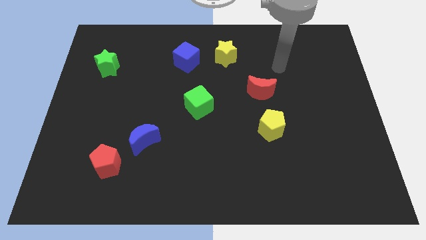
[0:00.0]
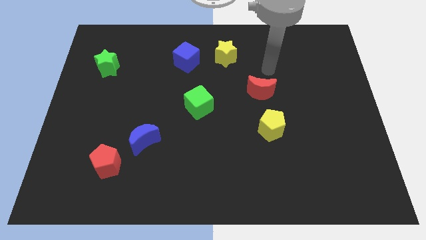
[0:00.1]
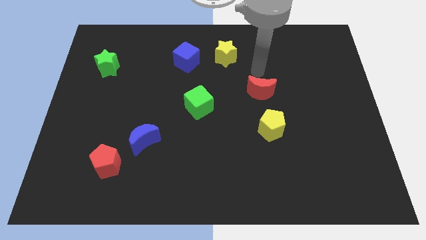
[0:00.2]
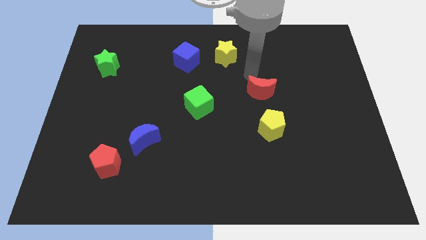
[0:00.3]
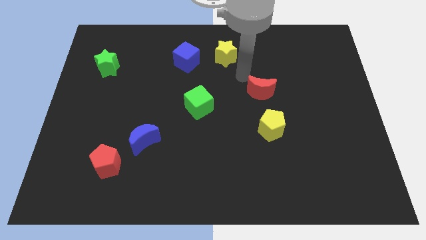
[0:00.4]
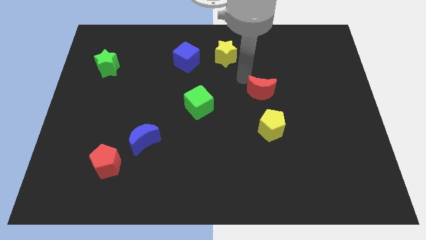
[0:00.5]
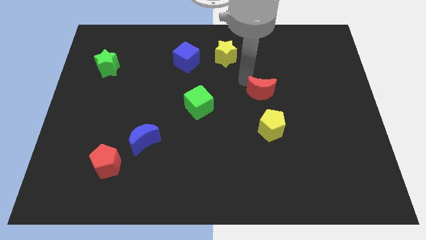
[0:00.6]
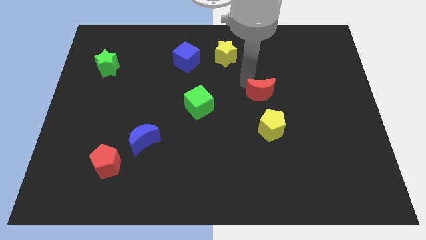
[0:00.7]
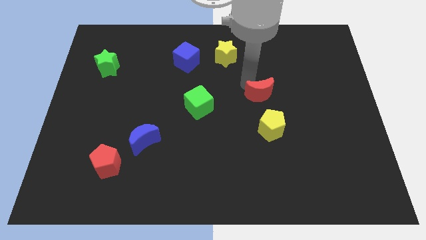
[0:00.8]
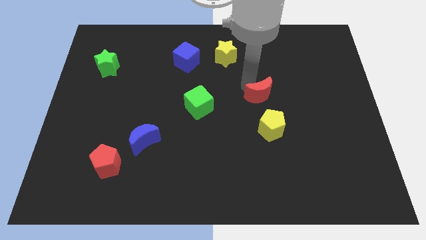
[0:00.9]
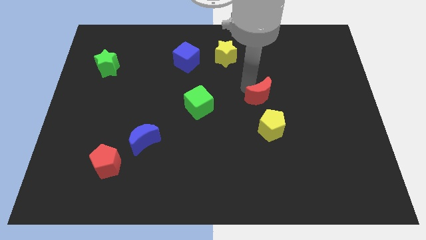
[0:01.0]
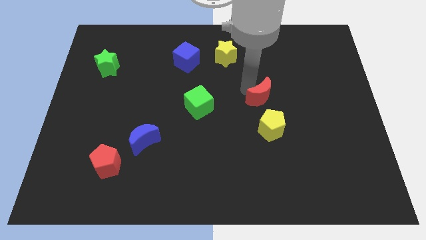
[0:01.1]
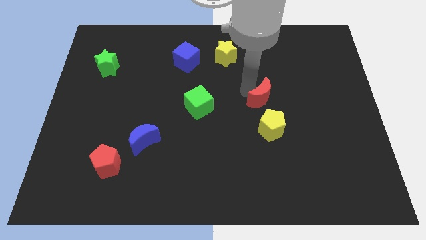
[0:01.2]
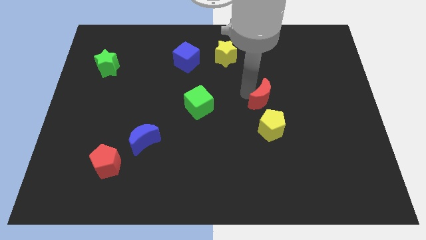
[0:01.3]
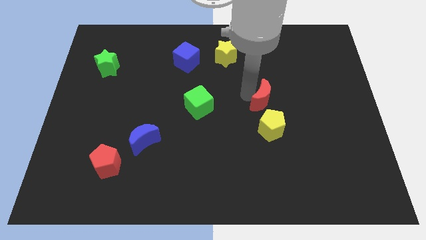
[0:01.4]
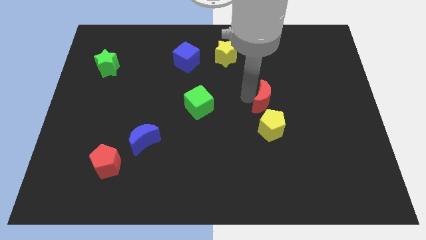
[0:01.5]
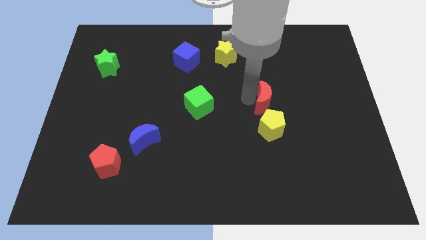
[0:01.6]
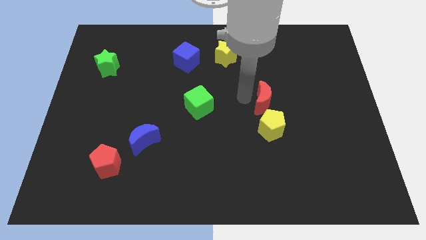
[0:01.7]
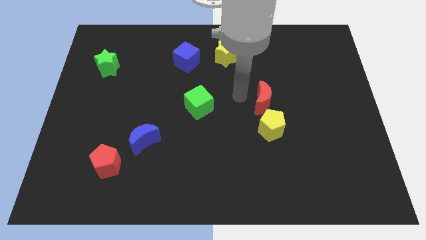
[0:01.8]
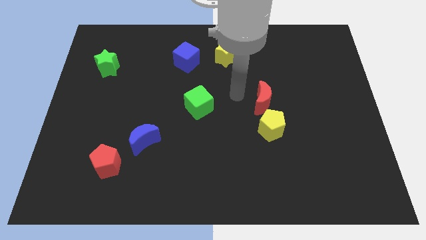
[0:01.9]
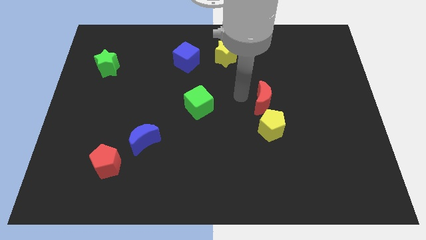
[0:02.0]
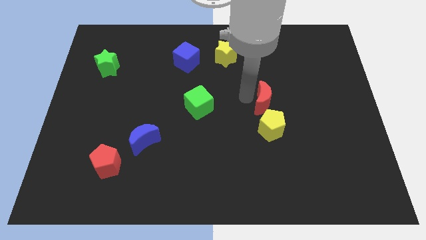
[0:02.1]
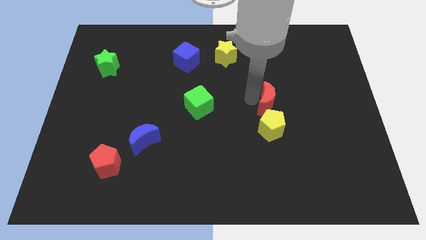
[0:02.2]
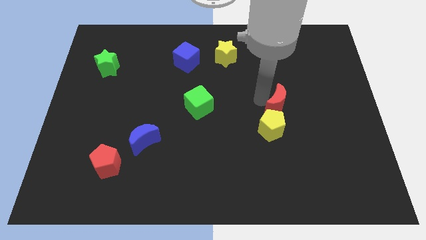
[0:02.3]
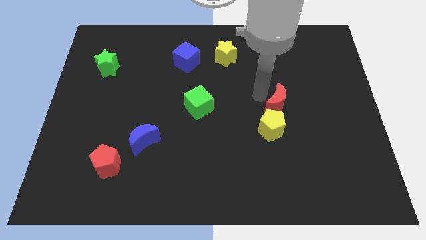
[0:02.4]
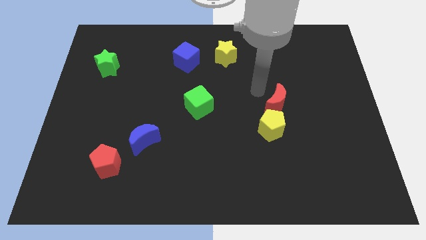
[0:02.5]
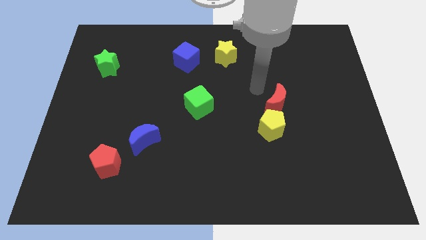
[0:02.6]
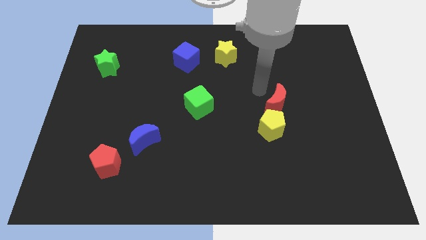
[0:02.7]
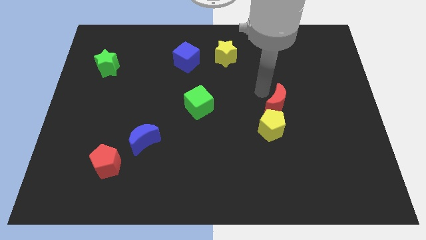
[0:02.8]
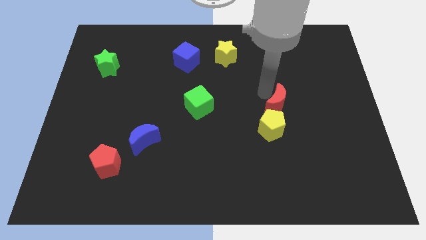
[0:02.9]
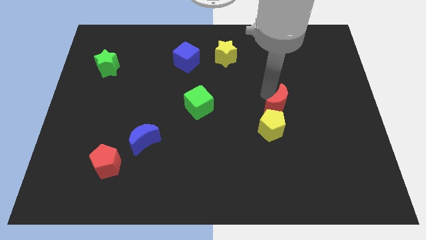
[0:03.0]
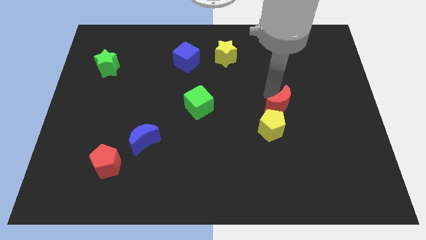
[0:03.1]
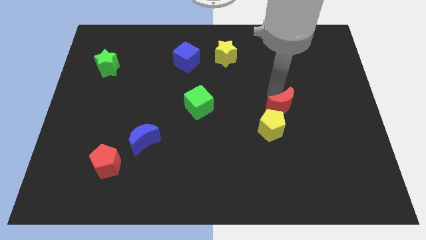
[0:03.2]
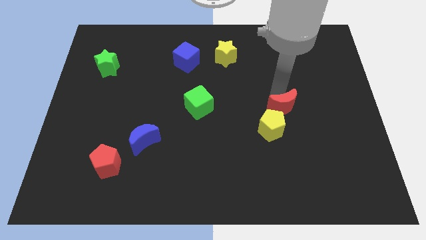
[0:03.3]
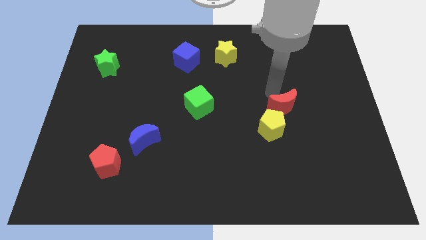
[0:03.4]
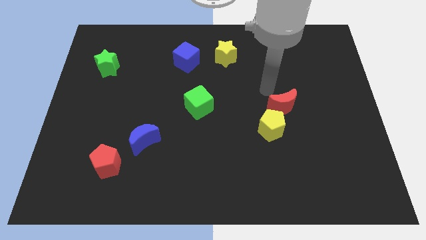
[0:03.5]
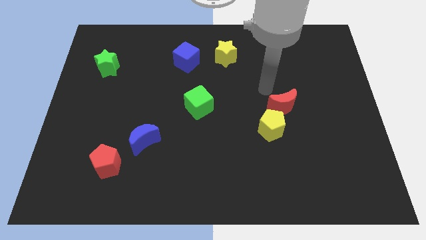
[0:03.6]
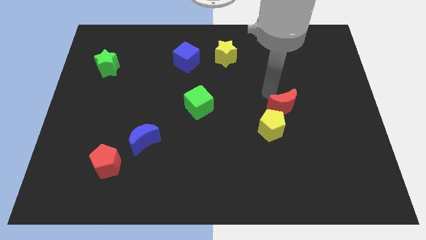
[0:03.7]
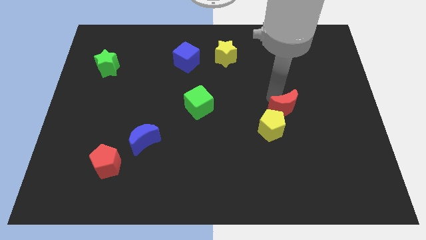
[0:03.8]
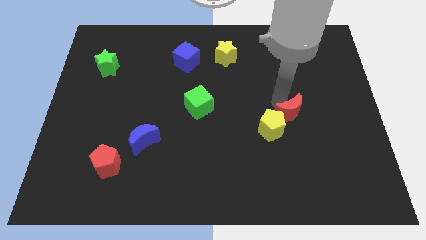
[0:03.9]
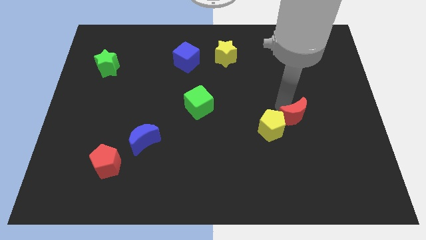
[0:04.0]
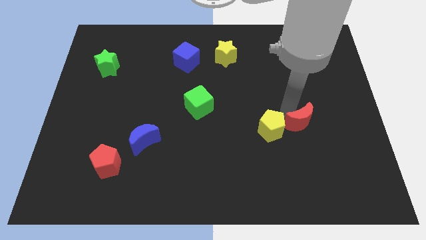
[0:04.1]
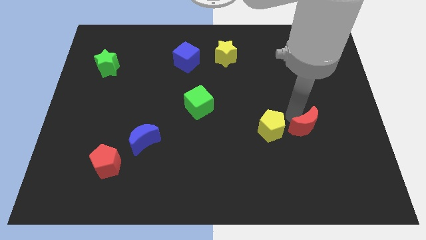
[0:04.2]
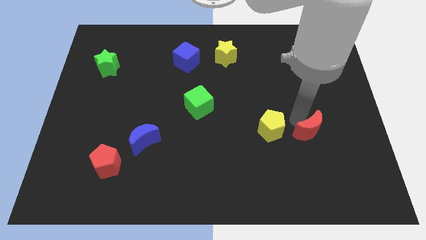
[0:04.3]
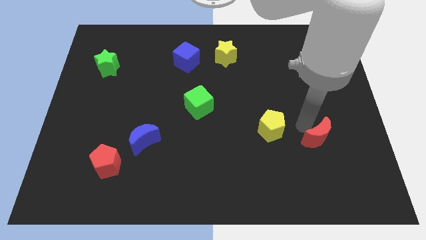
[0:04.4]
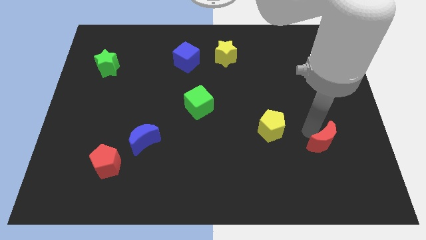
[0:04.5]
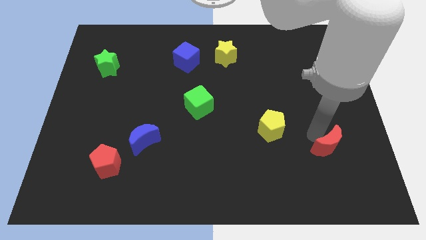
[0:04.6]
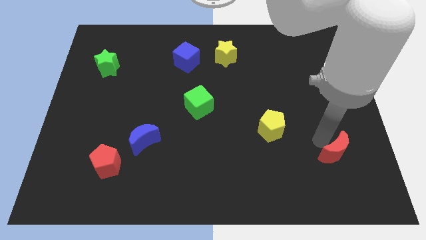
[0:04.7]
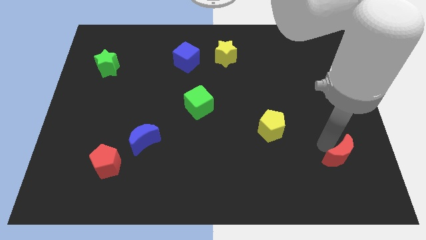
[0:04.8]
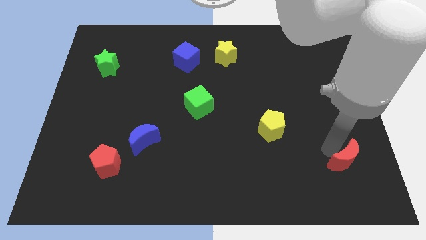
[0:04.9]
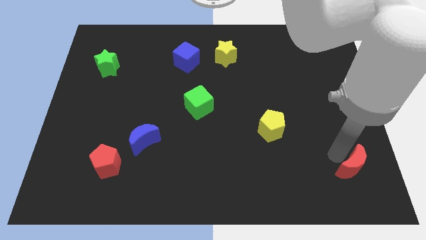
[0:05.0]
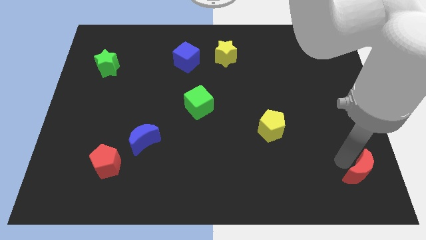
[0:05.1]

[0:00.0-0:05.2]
move the red moon to the lower right corner

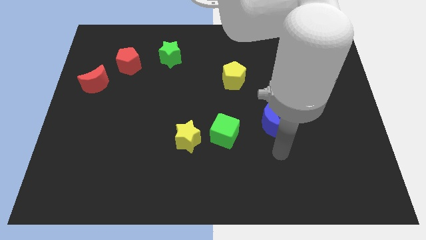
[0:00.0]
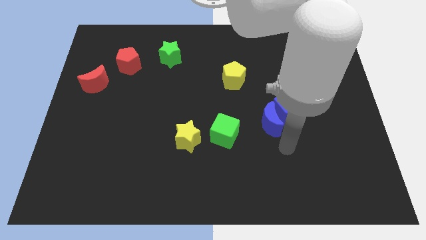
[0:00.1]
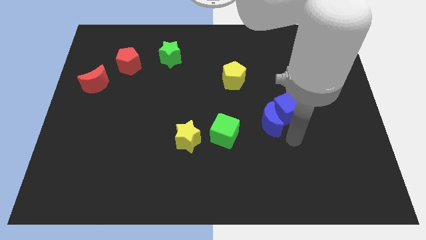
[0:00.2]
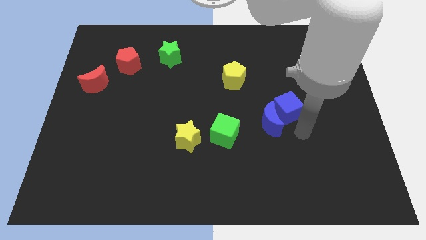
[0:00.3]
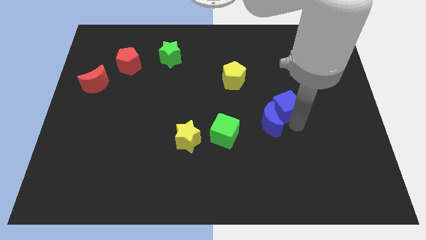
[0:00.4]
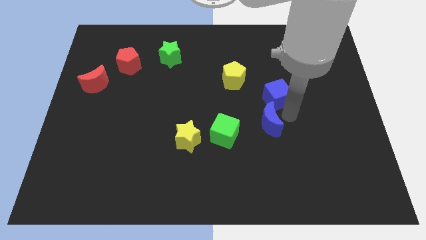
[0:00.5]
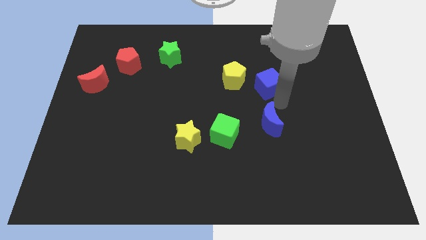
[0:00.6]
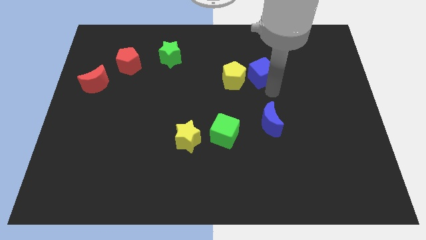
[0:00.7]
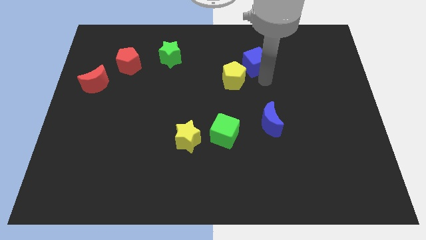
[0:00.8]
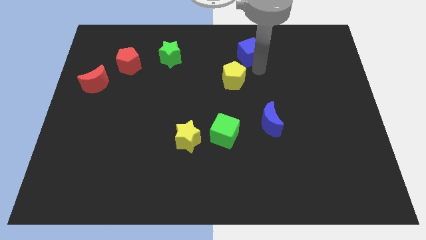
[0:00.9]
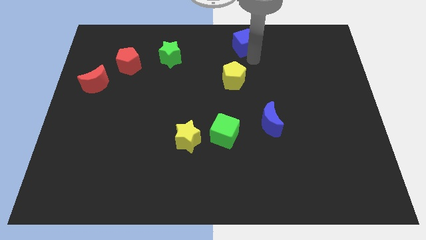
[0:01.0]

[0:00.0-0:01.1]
put the blue cube to the top
